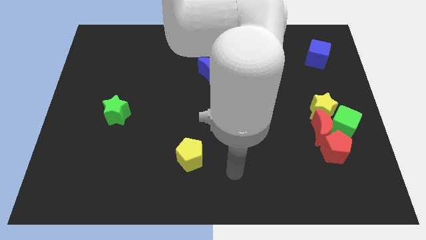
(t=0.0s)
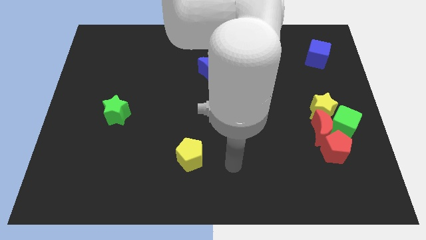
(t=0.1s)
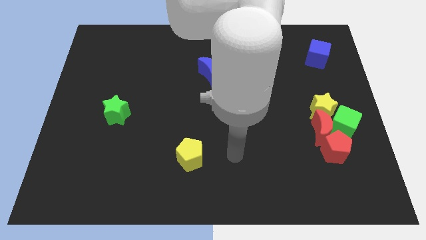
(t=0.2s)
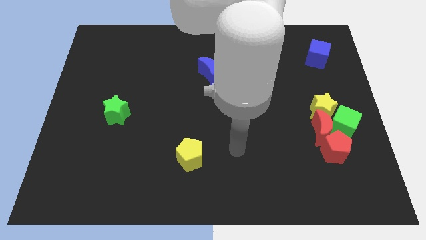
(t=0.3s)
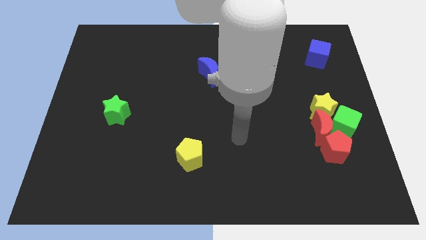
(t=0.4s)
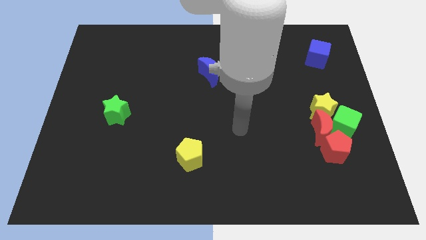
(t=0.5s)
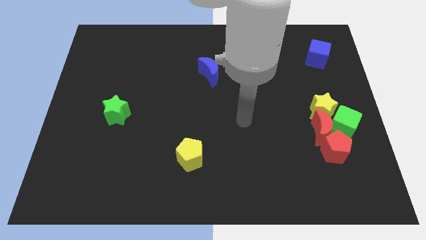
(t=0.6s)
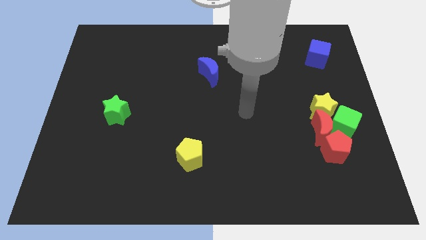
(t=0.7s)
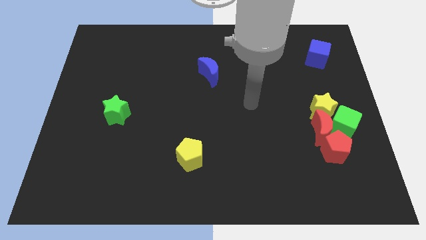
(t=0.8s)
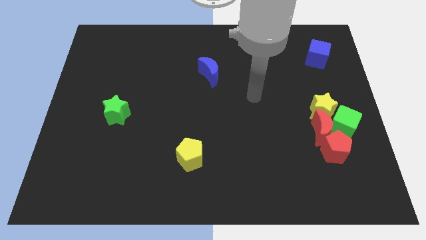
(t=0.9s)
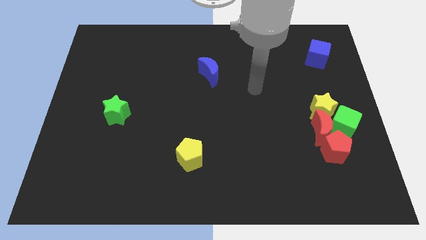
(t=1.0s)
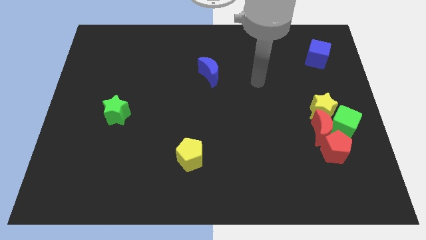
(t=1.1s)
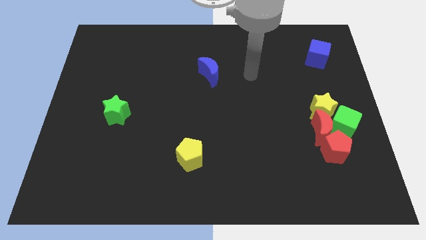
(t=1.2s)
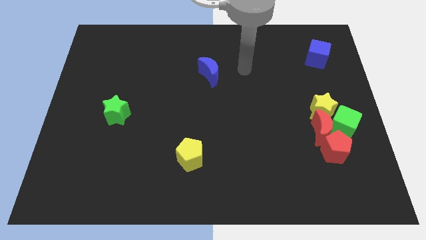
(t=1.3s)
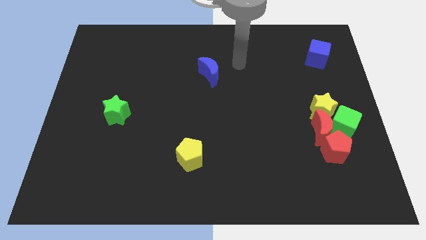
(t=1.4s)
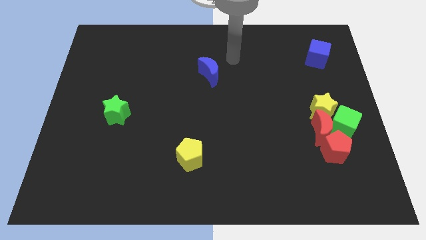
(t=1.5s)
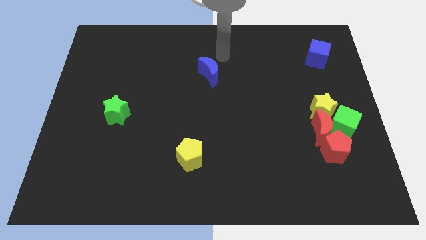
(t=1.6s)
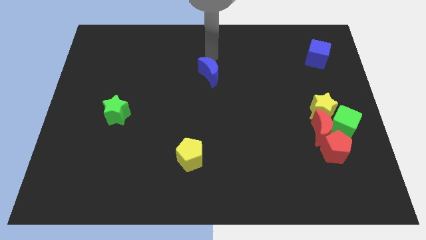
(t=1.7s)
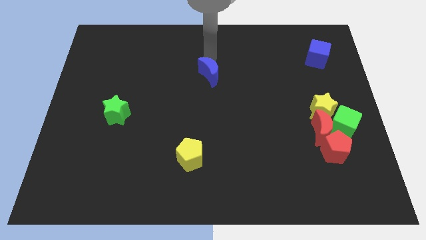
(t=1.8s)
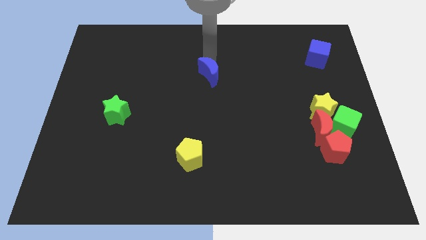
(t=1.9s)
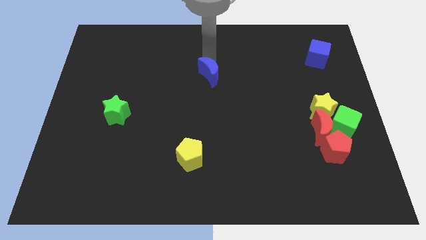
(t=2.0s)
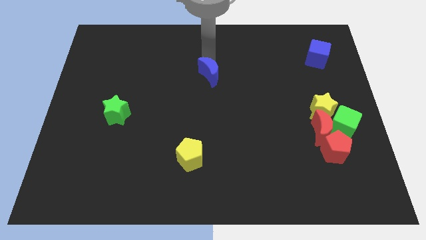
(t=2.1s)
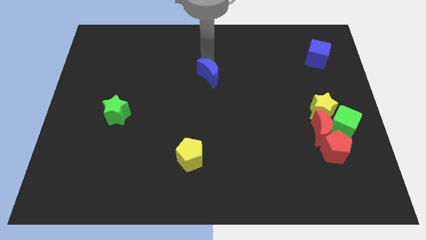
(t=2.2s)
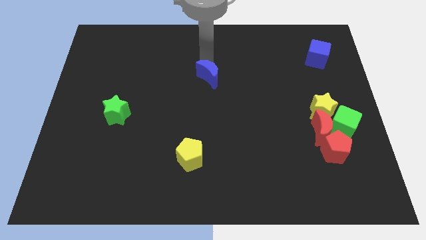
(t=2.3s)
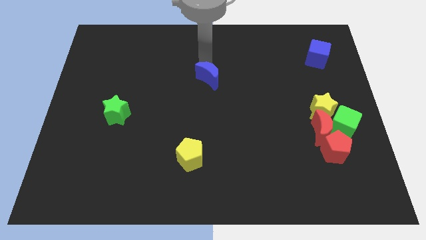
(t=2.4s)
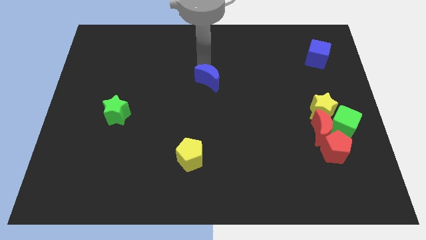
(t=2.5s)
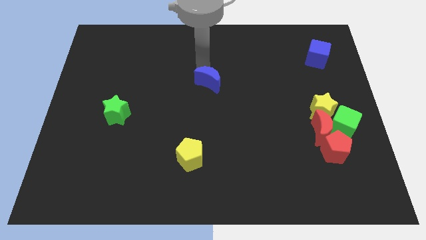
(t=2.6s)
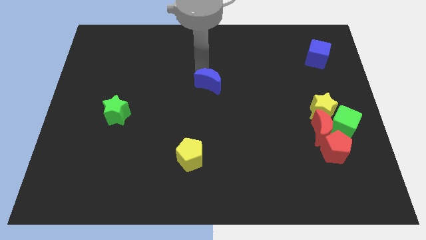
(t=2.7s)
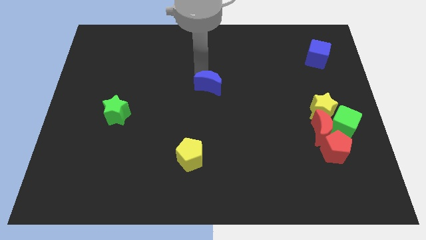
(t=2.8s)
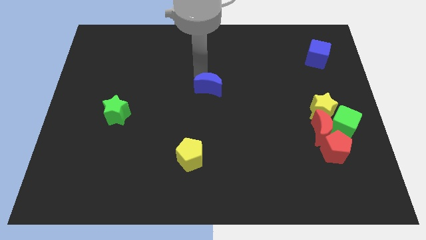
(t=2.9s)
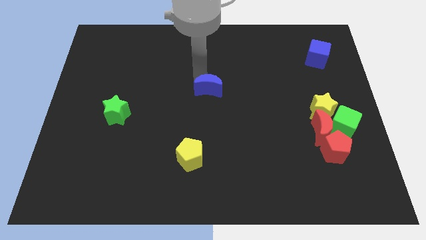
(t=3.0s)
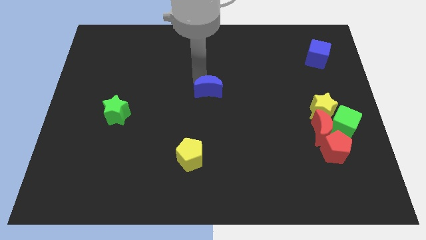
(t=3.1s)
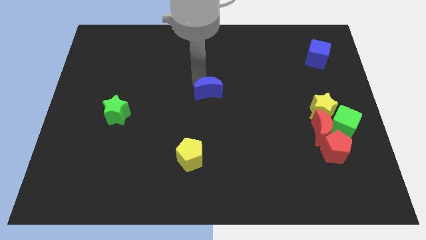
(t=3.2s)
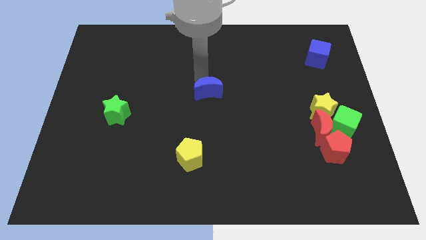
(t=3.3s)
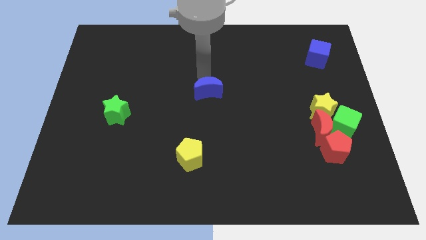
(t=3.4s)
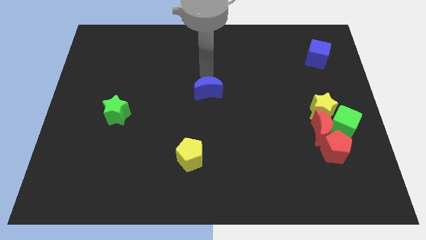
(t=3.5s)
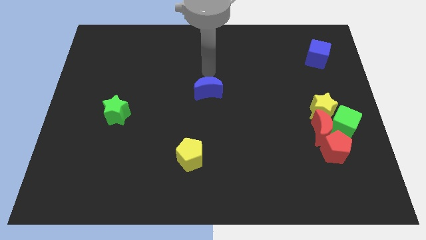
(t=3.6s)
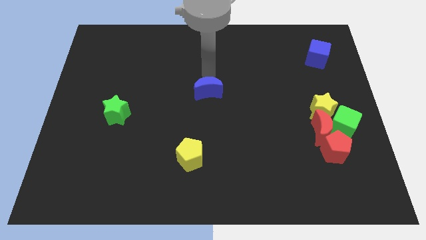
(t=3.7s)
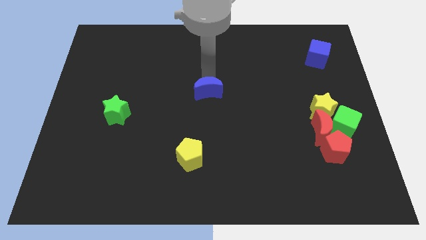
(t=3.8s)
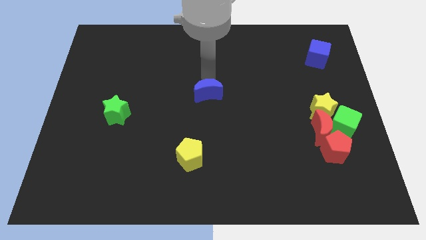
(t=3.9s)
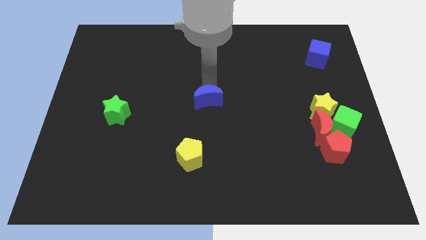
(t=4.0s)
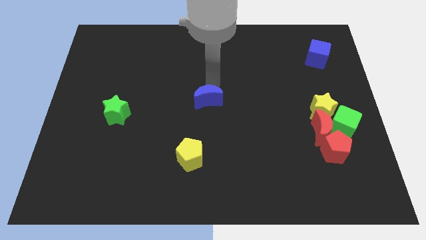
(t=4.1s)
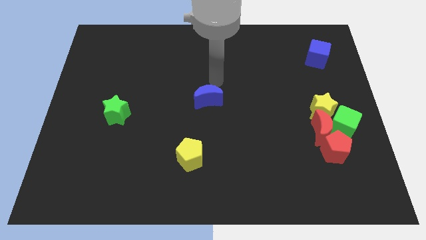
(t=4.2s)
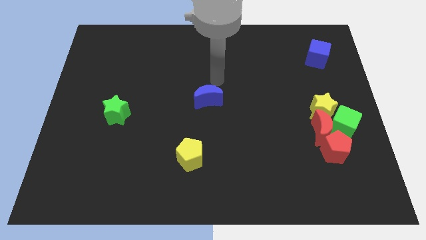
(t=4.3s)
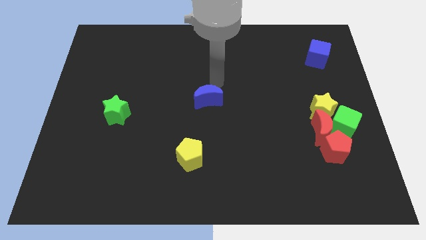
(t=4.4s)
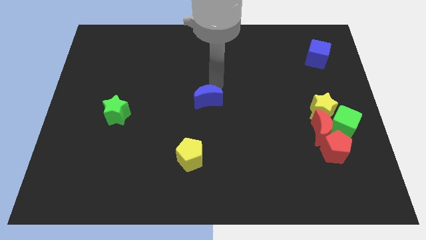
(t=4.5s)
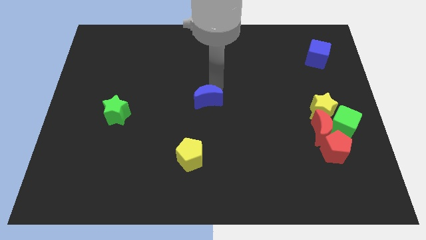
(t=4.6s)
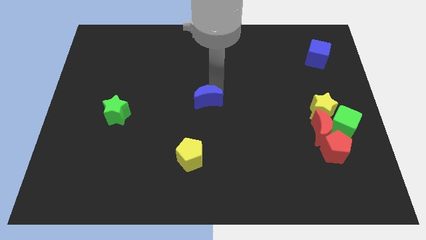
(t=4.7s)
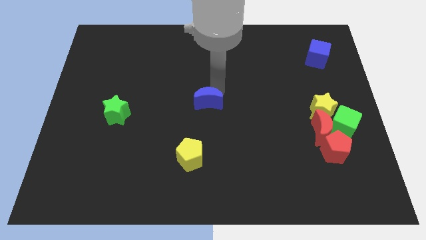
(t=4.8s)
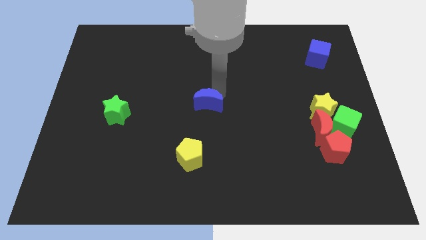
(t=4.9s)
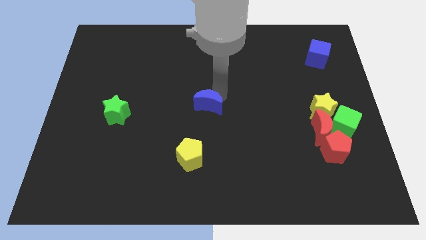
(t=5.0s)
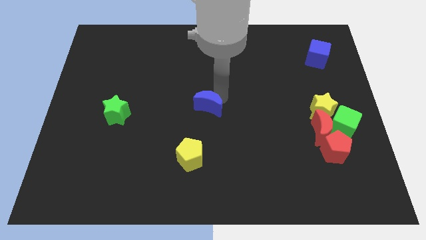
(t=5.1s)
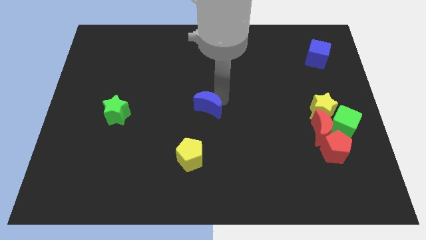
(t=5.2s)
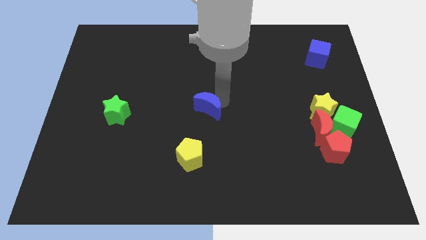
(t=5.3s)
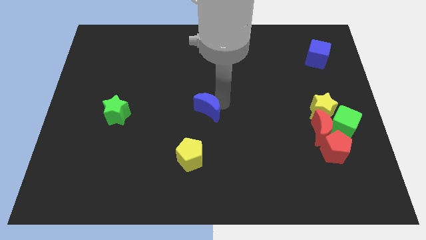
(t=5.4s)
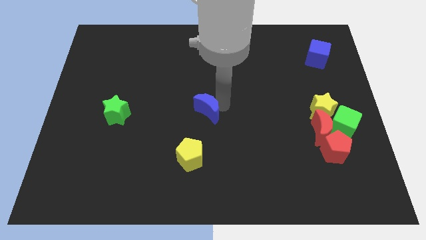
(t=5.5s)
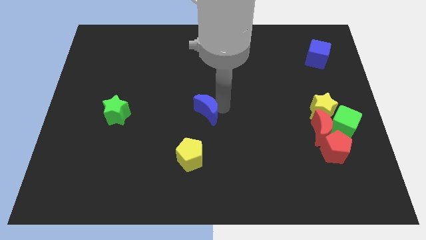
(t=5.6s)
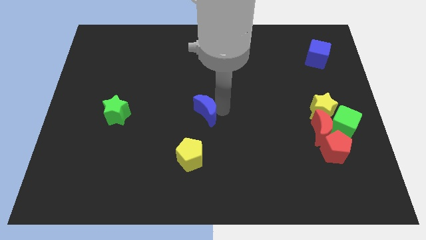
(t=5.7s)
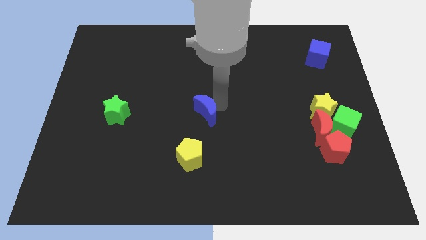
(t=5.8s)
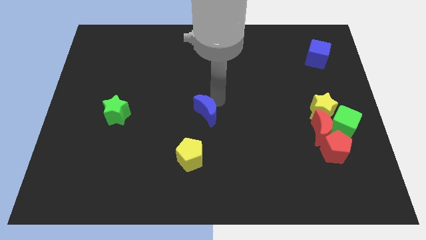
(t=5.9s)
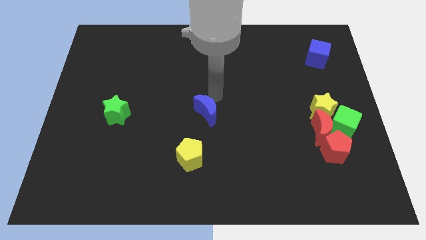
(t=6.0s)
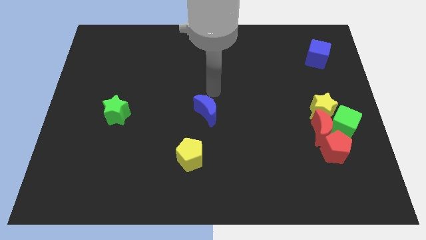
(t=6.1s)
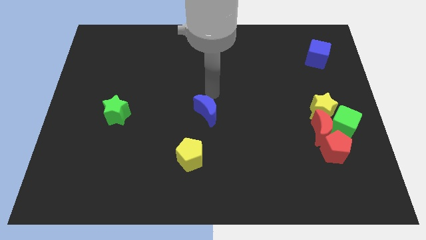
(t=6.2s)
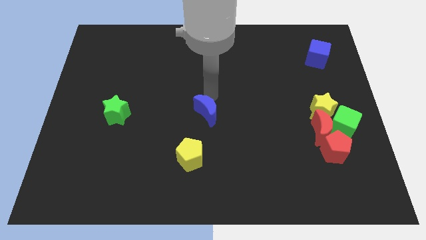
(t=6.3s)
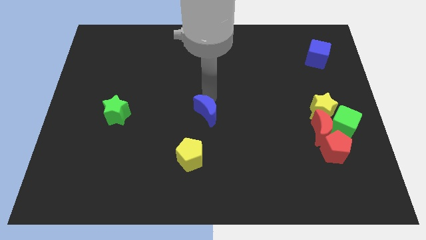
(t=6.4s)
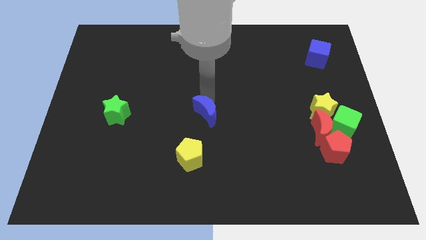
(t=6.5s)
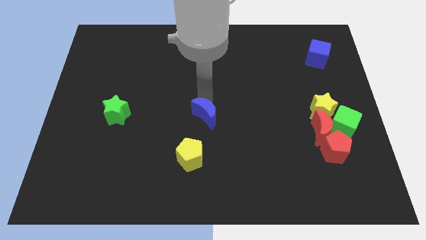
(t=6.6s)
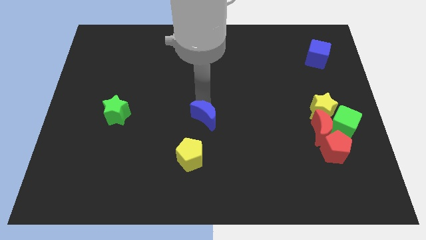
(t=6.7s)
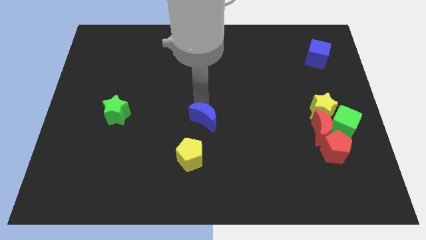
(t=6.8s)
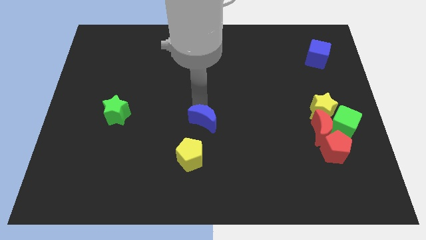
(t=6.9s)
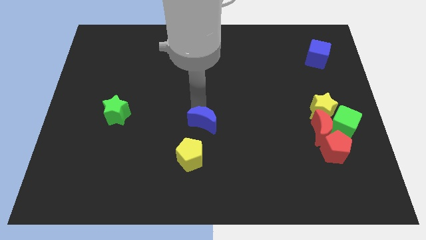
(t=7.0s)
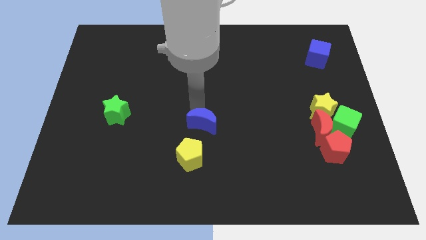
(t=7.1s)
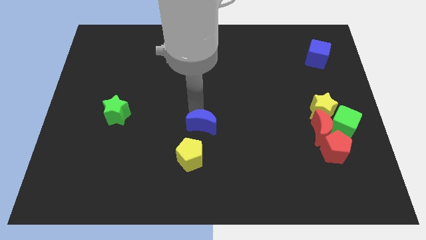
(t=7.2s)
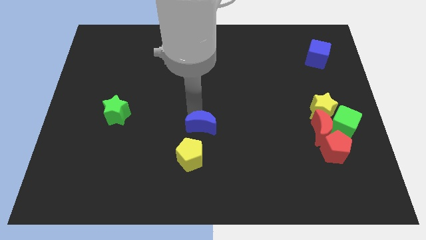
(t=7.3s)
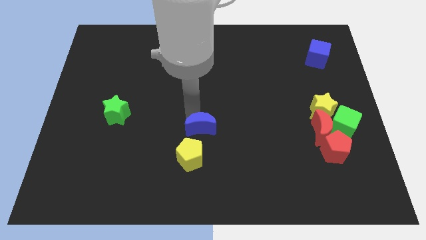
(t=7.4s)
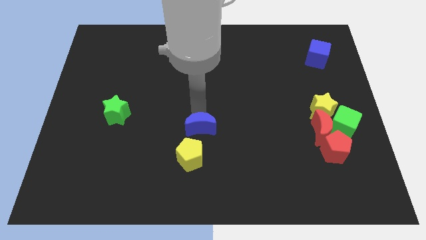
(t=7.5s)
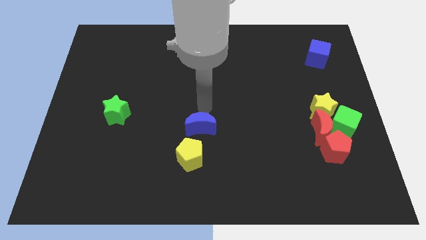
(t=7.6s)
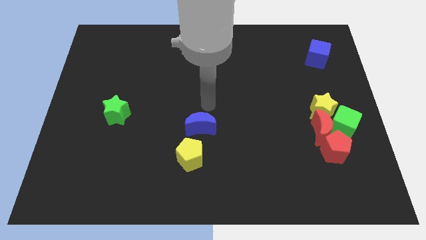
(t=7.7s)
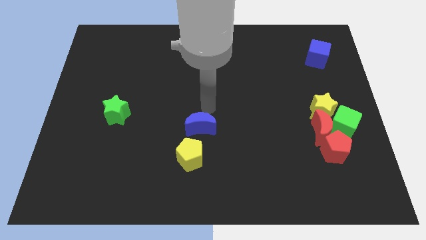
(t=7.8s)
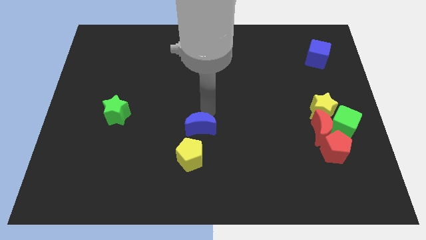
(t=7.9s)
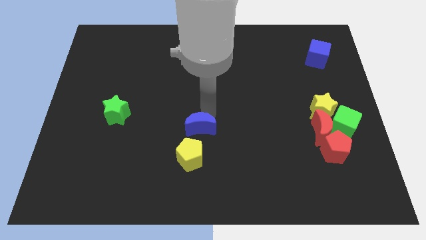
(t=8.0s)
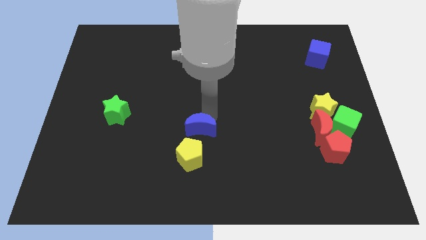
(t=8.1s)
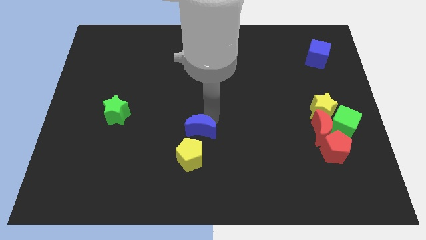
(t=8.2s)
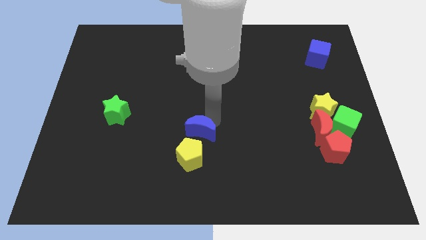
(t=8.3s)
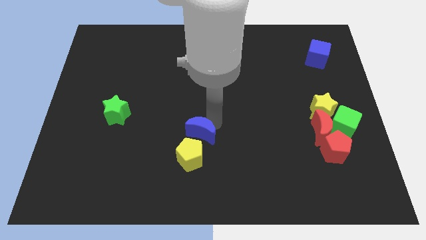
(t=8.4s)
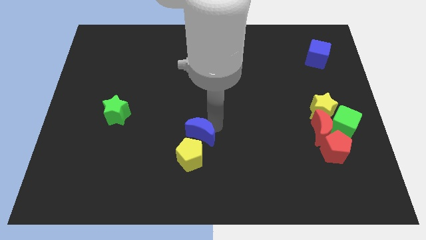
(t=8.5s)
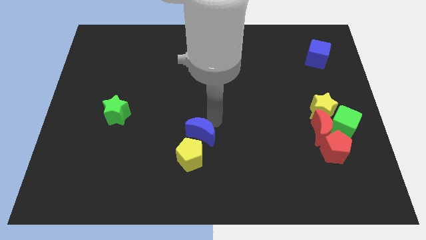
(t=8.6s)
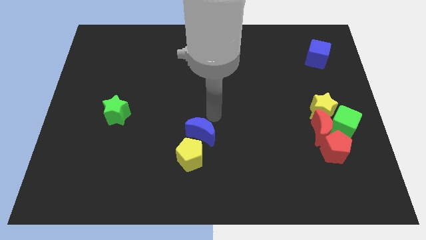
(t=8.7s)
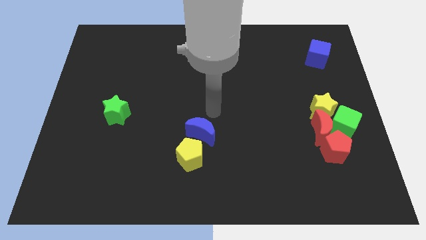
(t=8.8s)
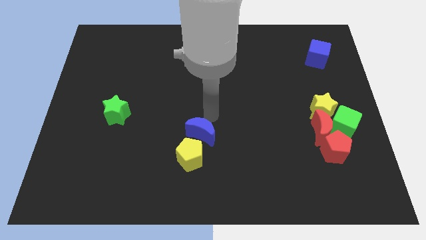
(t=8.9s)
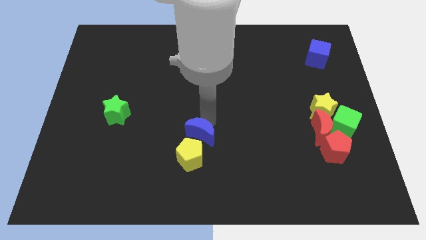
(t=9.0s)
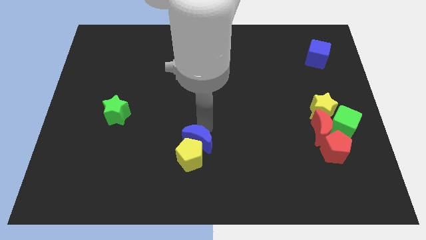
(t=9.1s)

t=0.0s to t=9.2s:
put the blue moon towards the yellow pentagon
